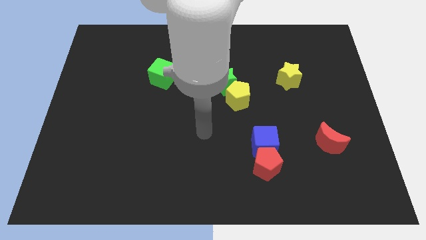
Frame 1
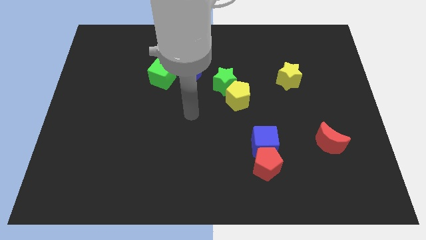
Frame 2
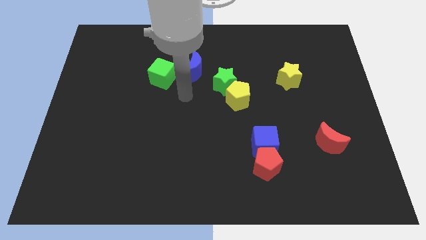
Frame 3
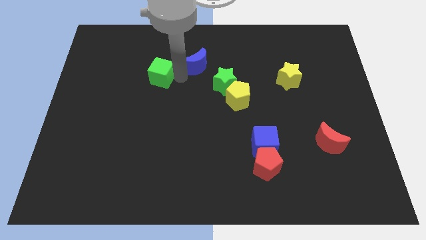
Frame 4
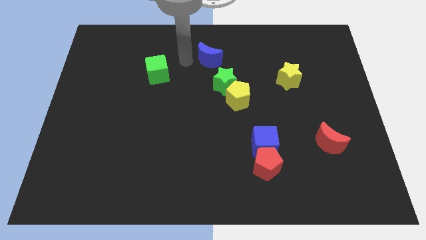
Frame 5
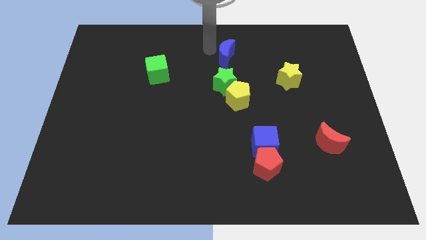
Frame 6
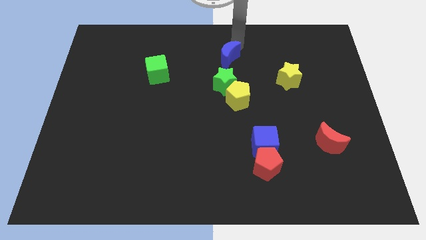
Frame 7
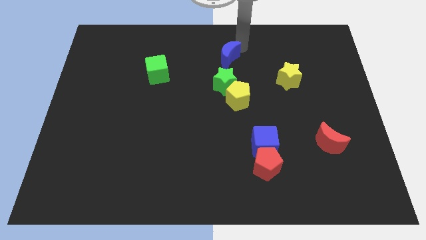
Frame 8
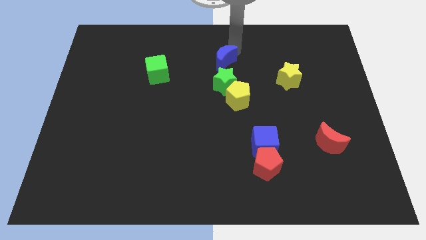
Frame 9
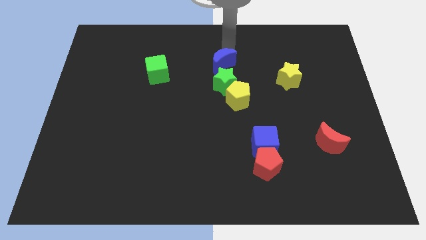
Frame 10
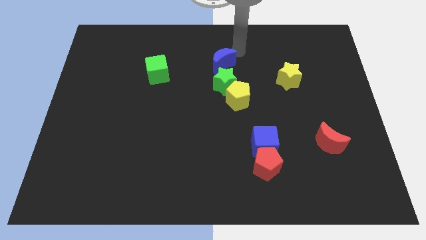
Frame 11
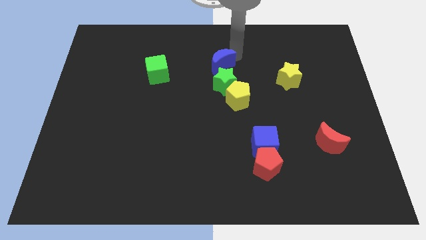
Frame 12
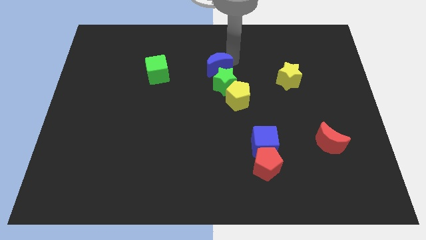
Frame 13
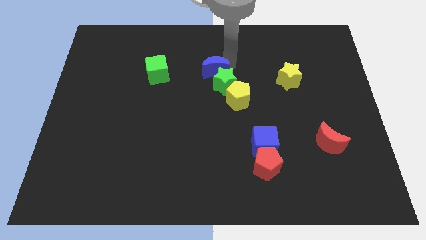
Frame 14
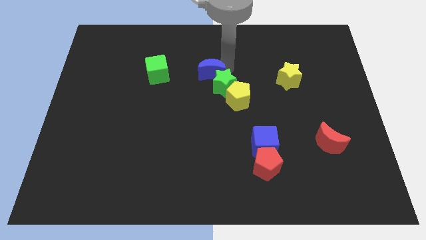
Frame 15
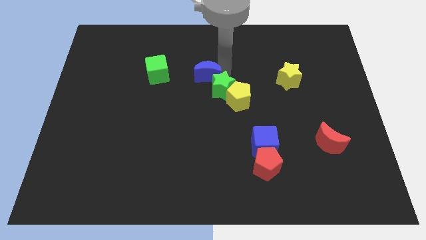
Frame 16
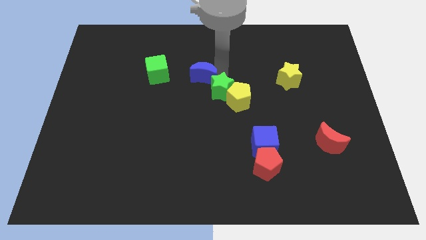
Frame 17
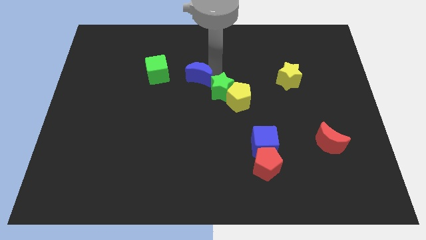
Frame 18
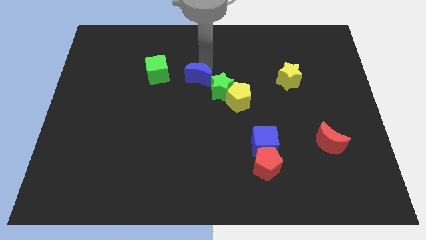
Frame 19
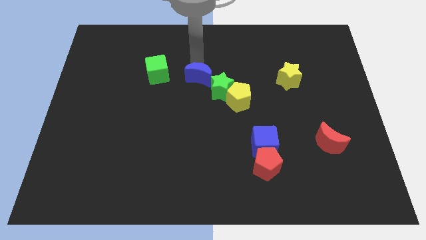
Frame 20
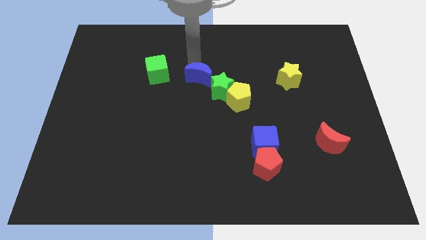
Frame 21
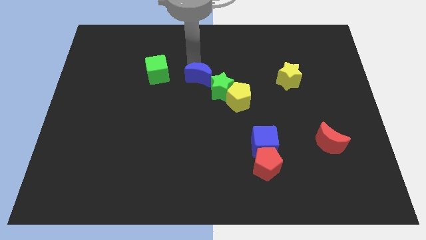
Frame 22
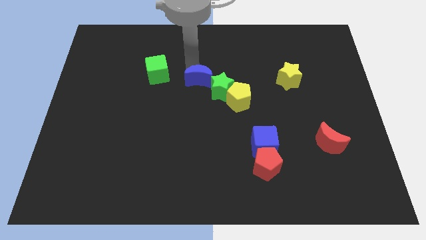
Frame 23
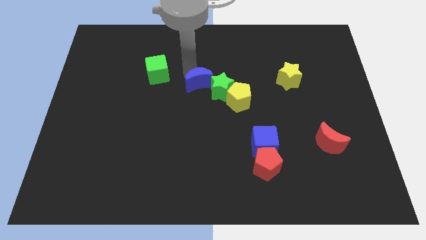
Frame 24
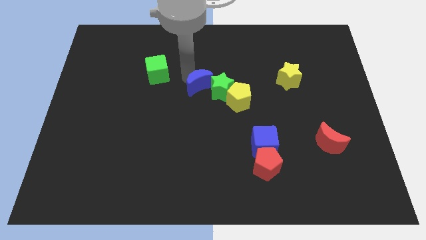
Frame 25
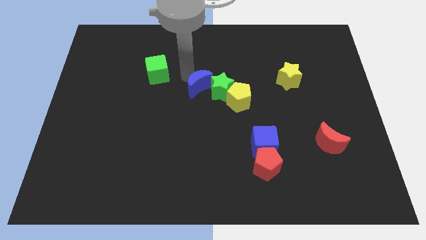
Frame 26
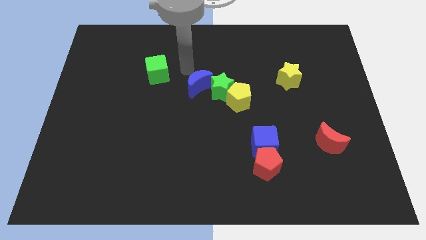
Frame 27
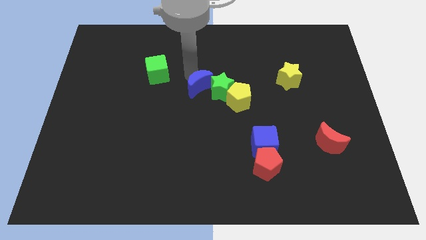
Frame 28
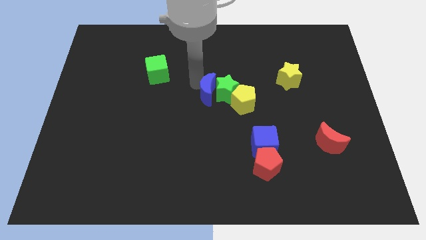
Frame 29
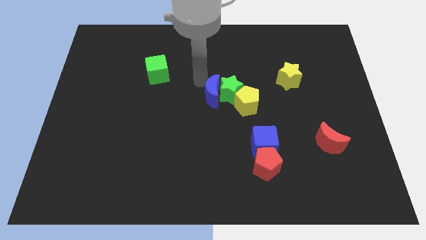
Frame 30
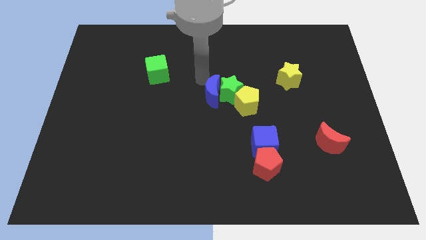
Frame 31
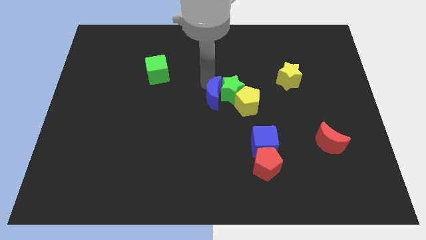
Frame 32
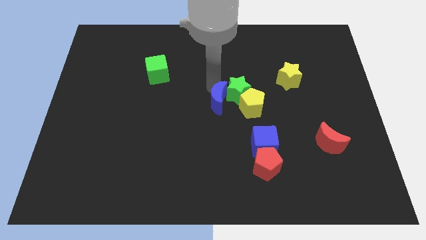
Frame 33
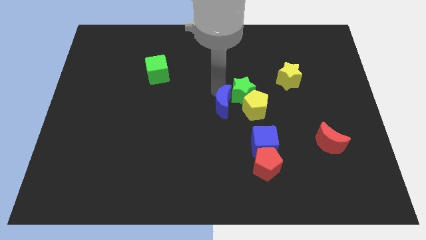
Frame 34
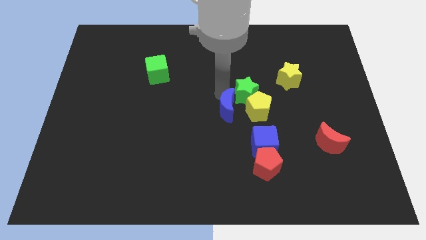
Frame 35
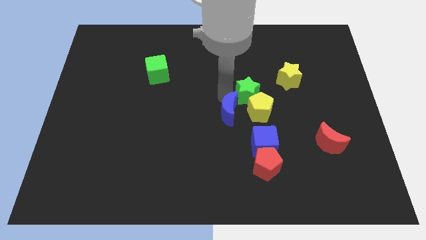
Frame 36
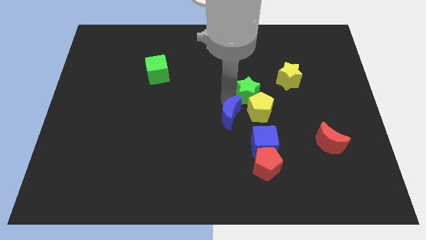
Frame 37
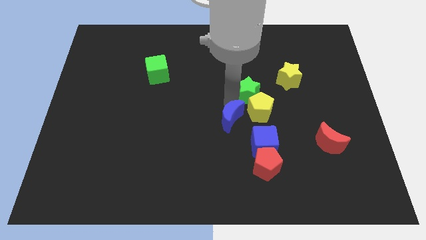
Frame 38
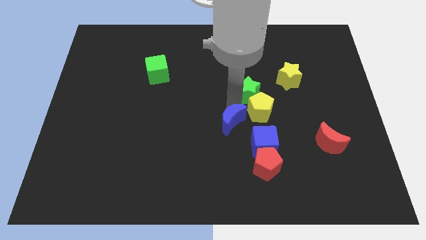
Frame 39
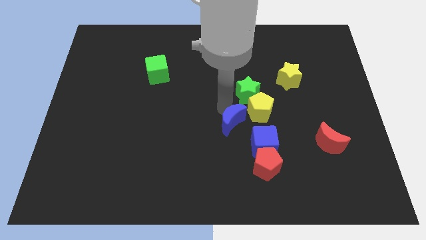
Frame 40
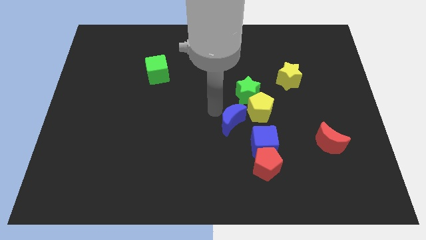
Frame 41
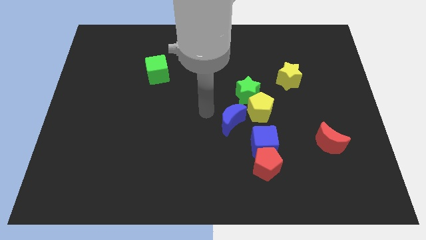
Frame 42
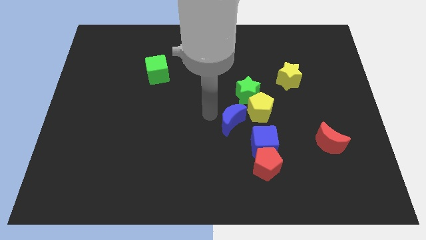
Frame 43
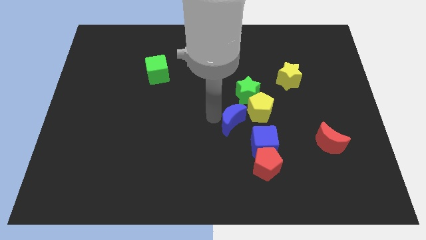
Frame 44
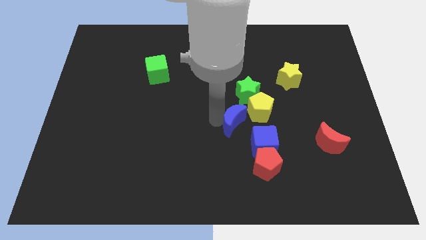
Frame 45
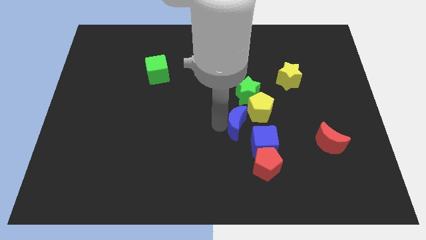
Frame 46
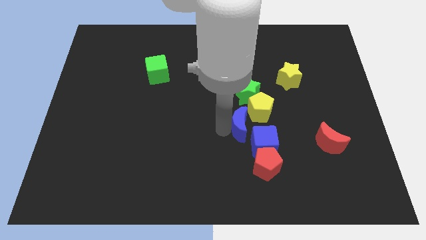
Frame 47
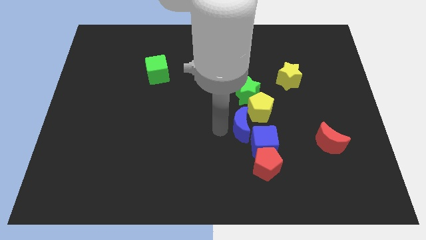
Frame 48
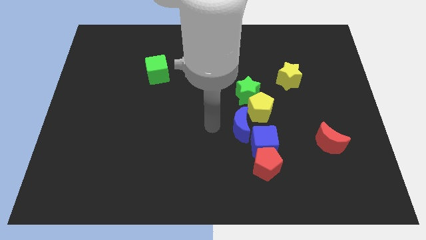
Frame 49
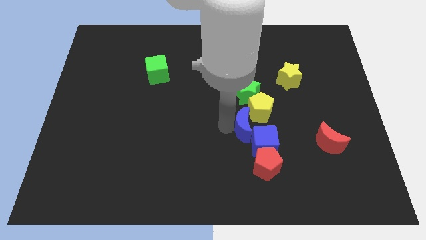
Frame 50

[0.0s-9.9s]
slide the blue moon downwards and to the right diagonally

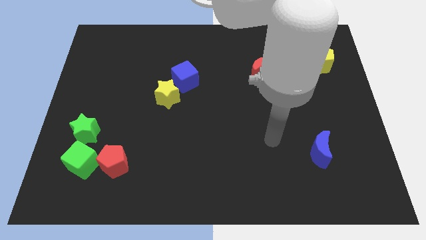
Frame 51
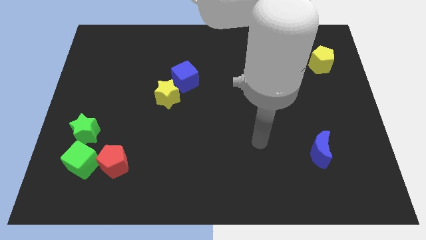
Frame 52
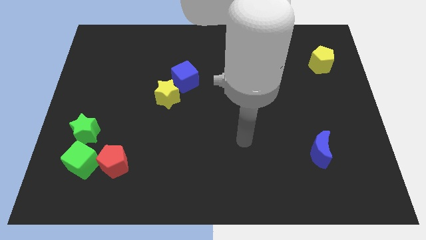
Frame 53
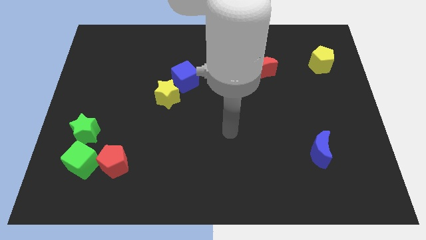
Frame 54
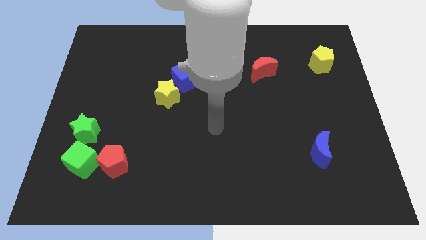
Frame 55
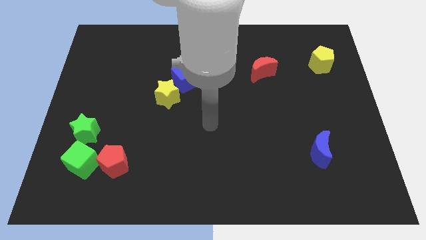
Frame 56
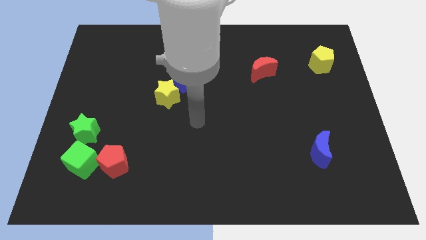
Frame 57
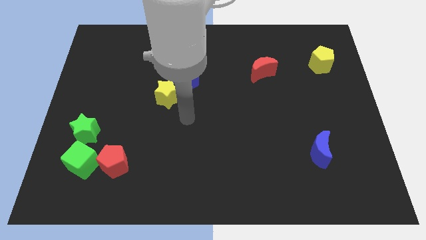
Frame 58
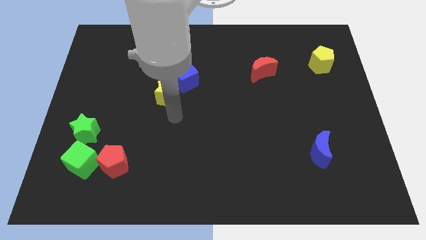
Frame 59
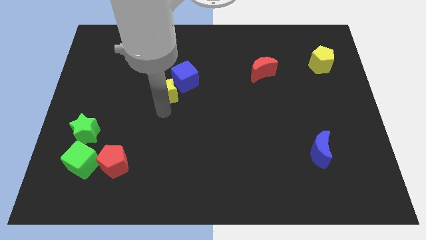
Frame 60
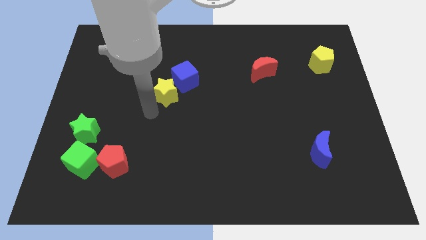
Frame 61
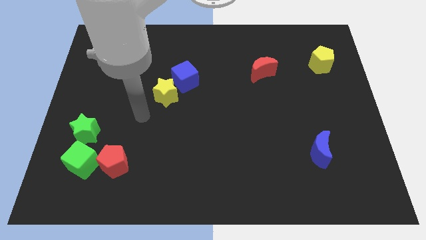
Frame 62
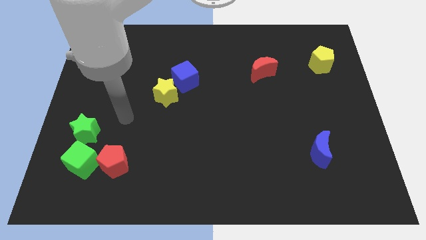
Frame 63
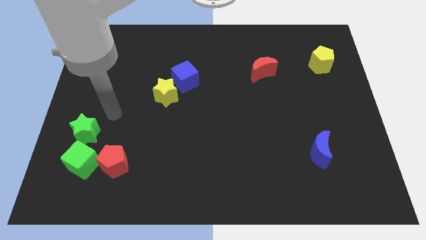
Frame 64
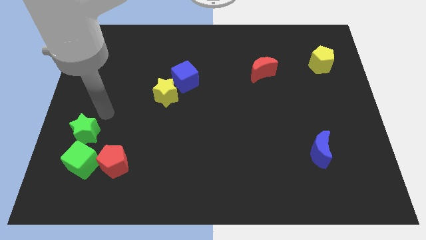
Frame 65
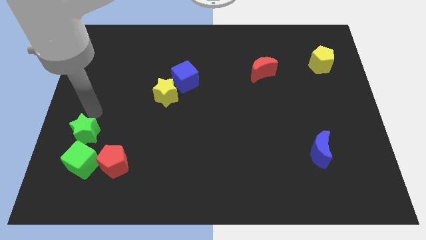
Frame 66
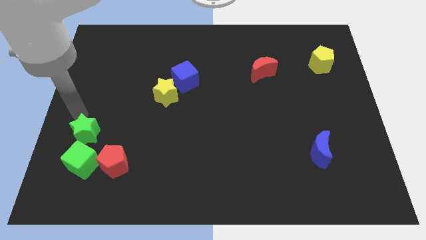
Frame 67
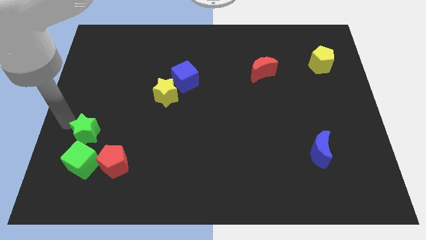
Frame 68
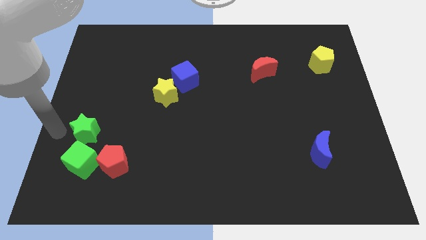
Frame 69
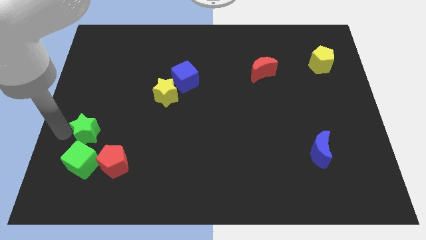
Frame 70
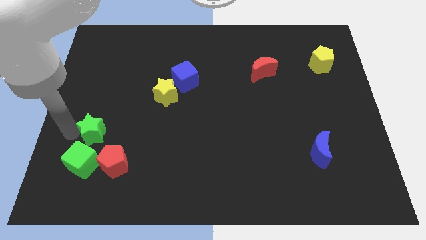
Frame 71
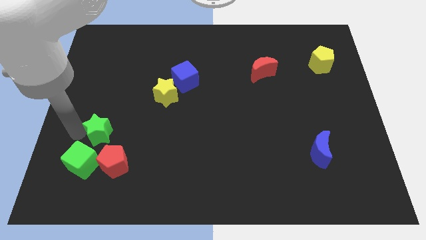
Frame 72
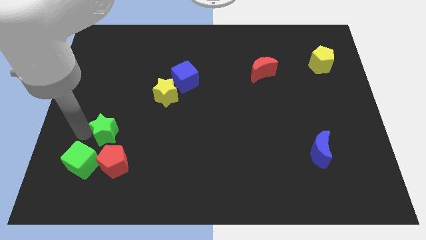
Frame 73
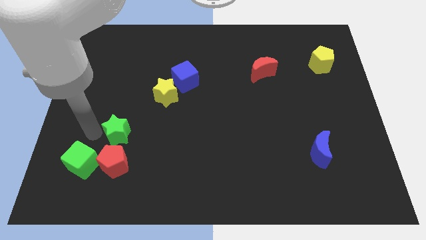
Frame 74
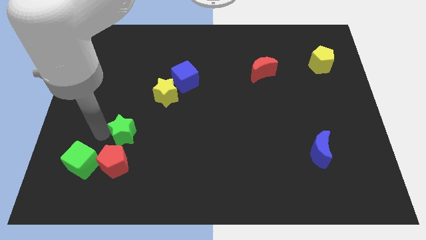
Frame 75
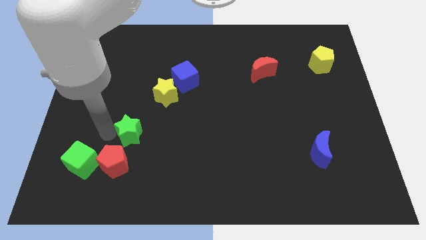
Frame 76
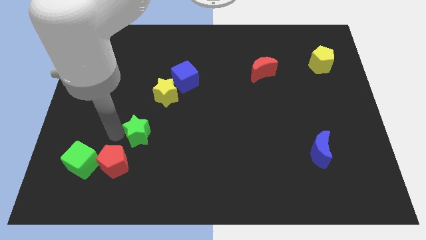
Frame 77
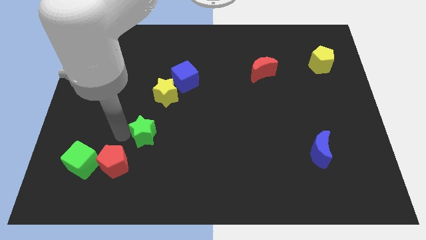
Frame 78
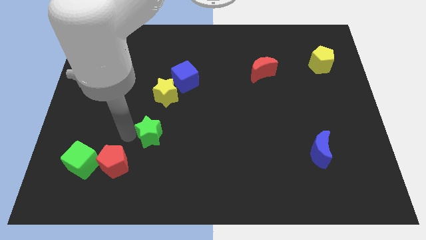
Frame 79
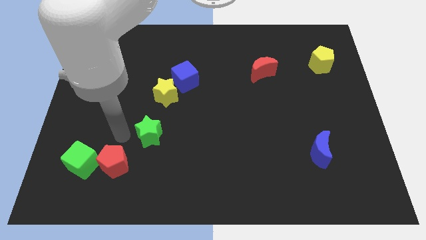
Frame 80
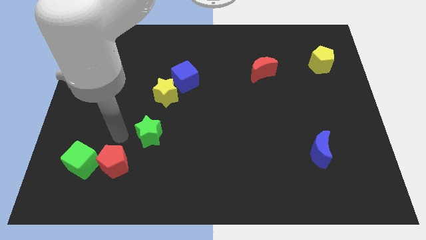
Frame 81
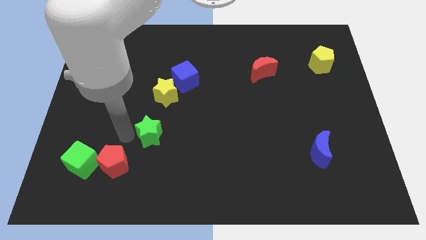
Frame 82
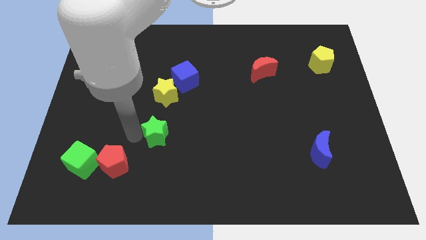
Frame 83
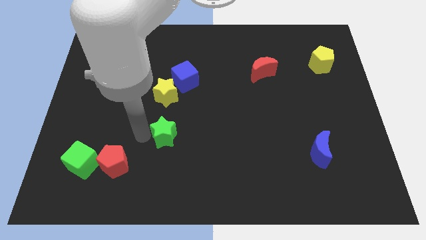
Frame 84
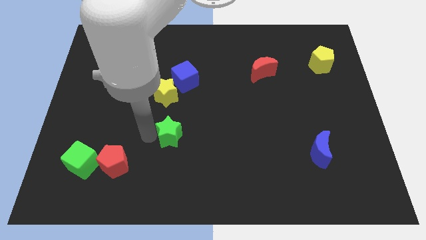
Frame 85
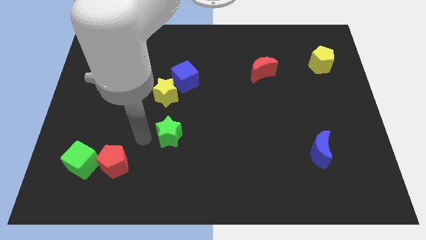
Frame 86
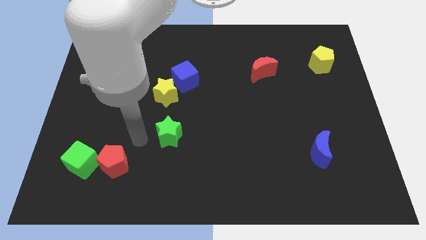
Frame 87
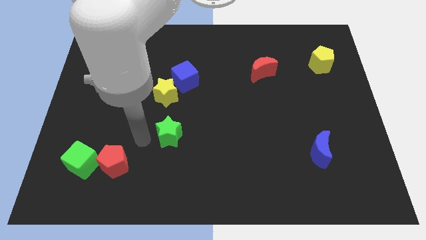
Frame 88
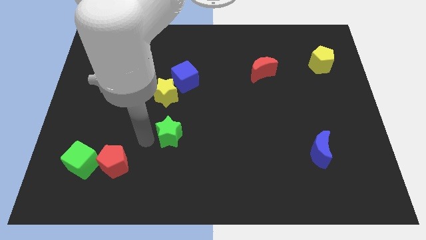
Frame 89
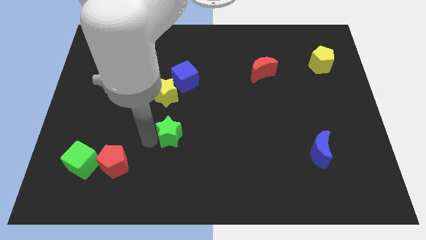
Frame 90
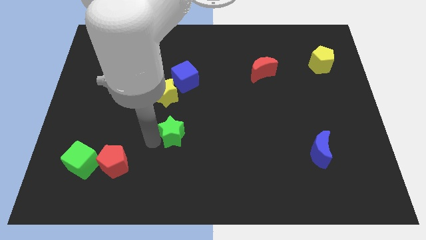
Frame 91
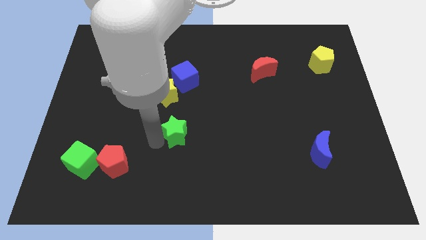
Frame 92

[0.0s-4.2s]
slide the green star right
